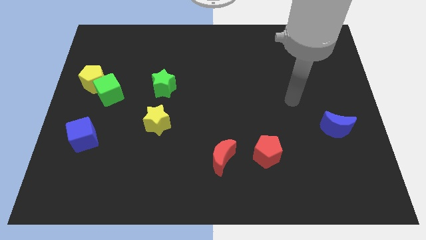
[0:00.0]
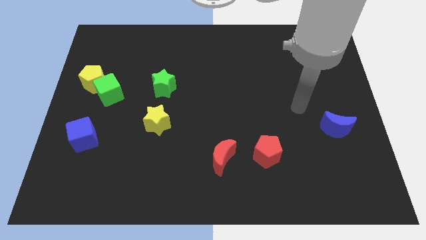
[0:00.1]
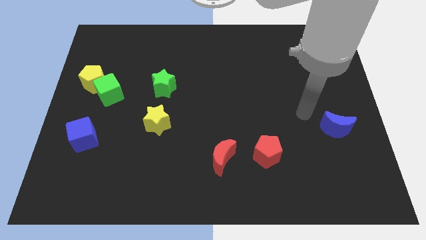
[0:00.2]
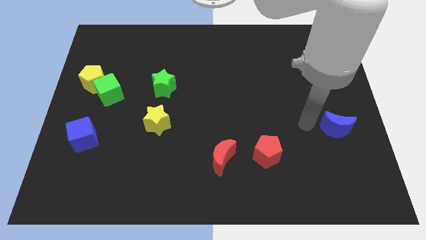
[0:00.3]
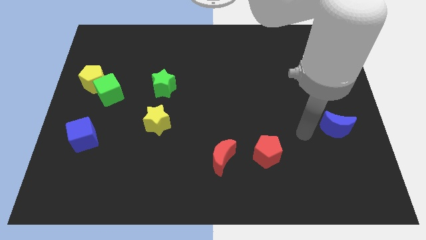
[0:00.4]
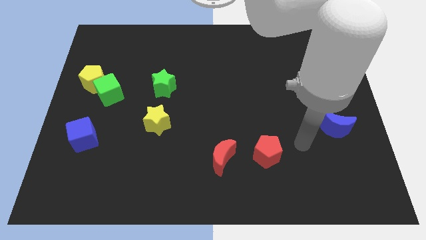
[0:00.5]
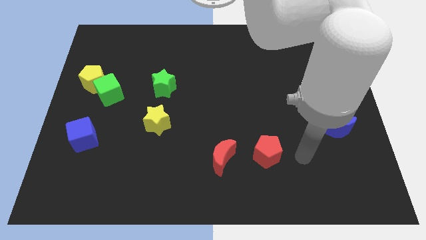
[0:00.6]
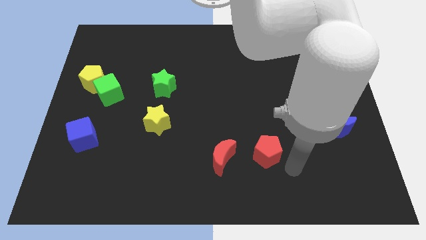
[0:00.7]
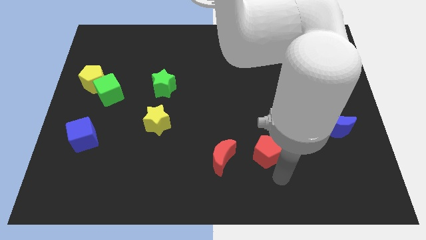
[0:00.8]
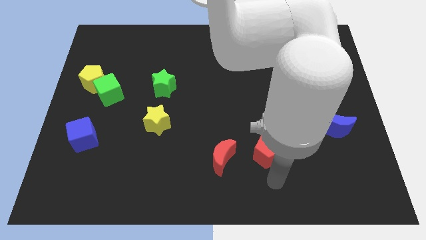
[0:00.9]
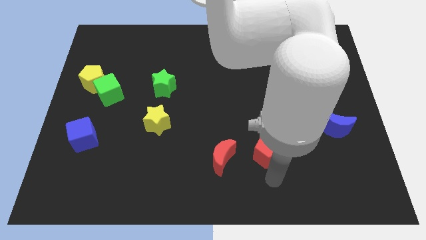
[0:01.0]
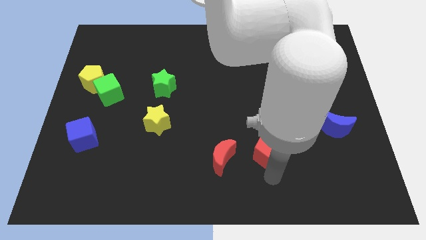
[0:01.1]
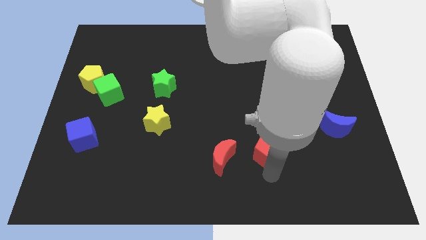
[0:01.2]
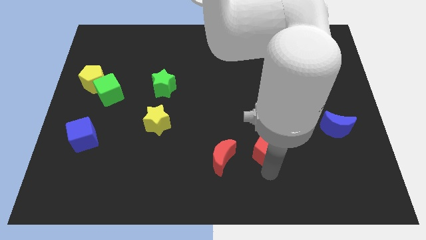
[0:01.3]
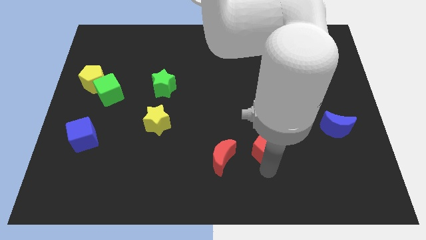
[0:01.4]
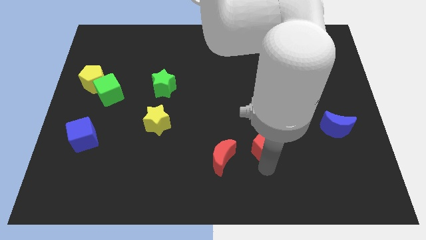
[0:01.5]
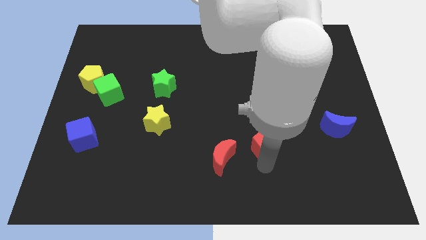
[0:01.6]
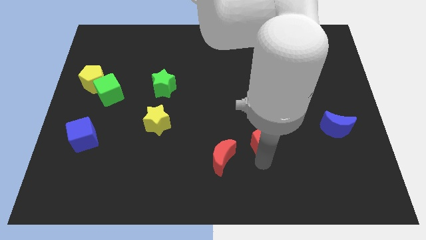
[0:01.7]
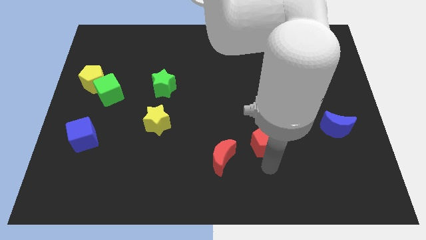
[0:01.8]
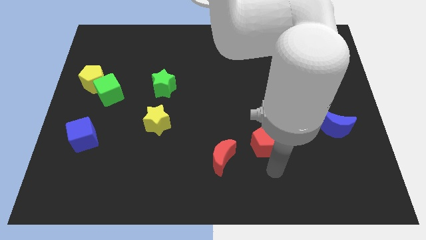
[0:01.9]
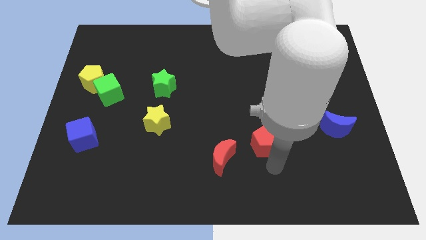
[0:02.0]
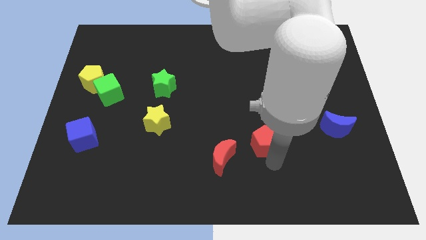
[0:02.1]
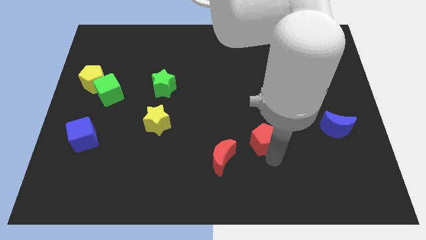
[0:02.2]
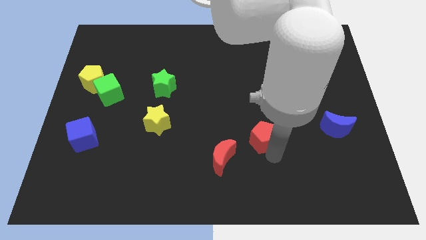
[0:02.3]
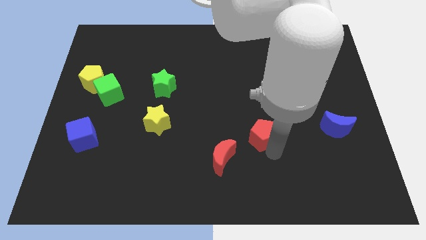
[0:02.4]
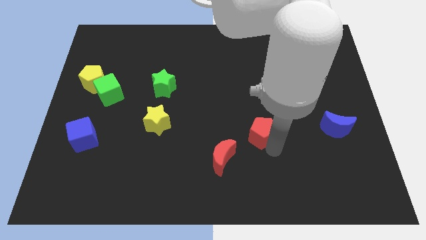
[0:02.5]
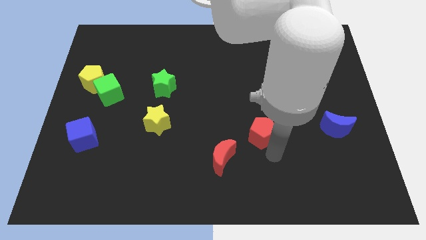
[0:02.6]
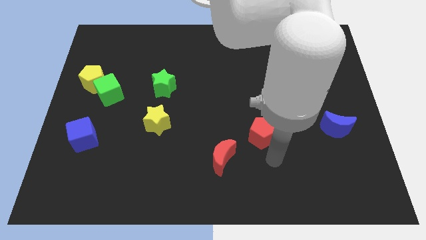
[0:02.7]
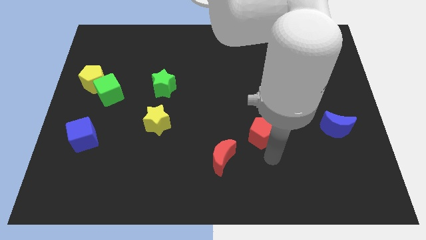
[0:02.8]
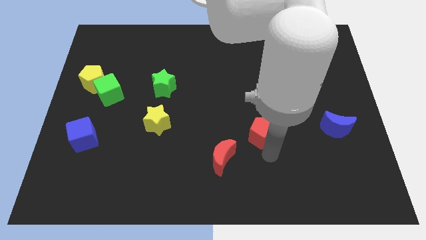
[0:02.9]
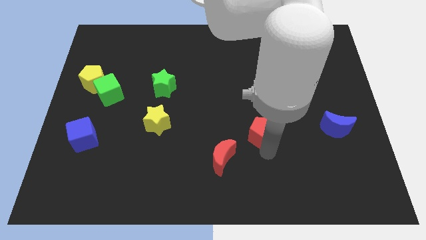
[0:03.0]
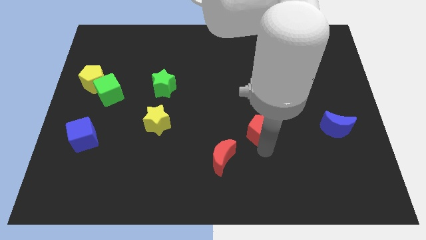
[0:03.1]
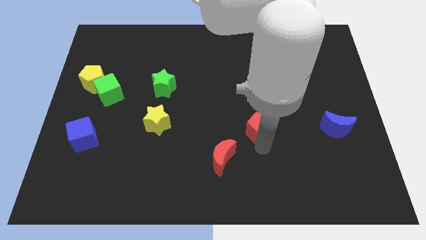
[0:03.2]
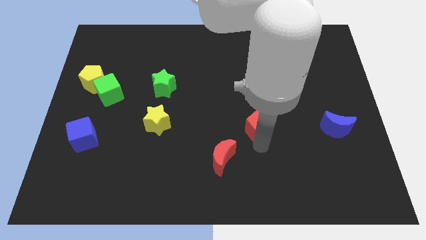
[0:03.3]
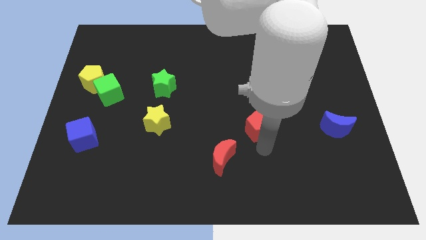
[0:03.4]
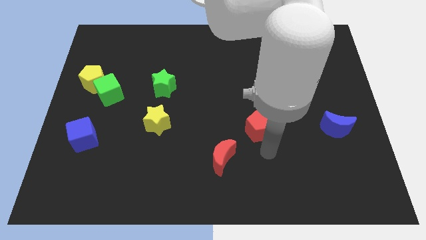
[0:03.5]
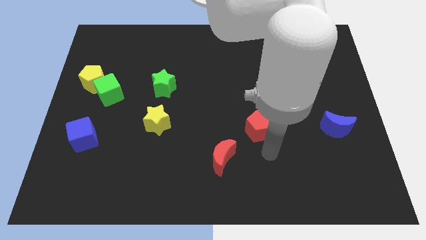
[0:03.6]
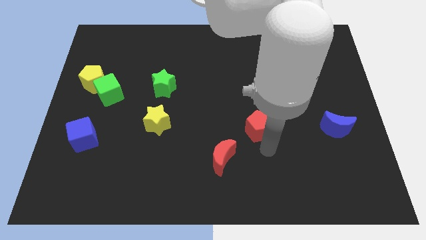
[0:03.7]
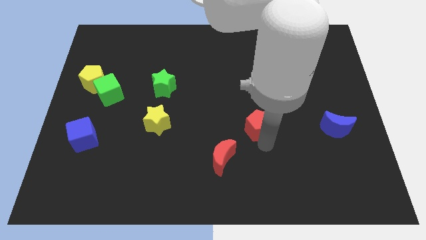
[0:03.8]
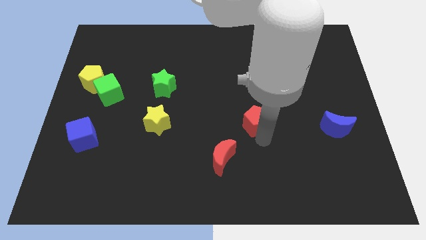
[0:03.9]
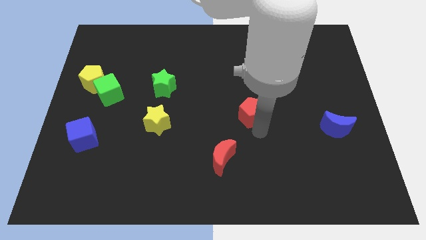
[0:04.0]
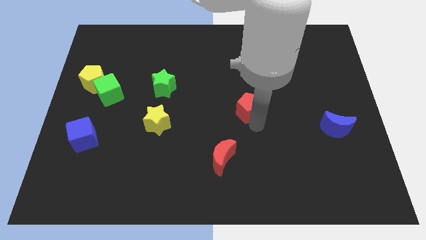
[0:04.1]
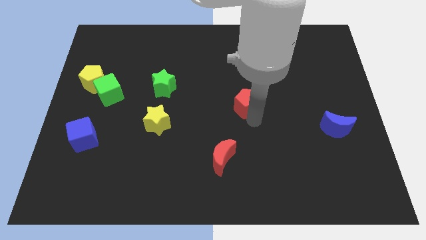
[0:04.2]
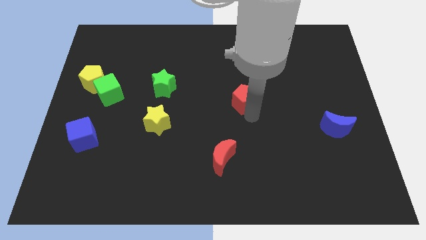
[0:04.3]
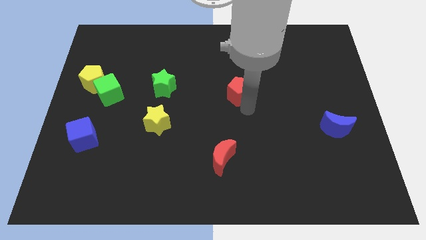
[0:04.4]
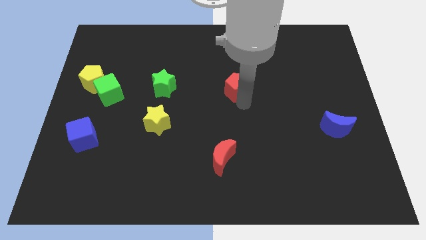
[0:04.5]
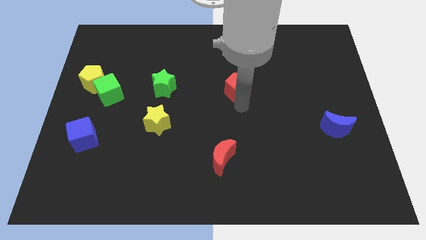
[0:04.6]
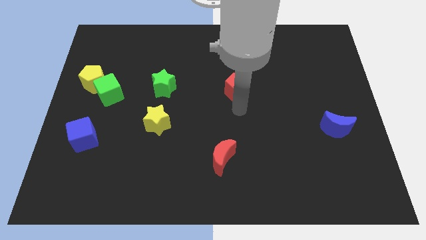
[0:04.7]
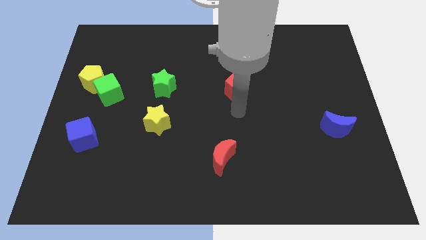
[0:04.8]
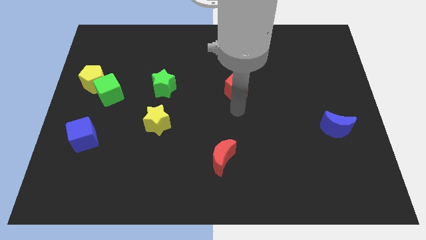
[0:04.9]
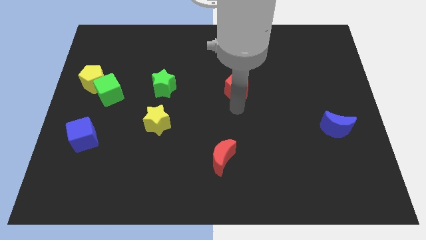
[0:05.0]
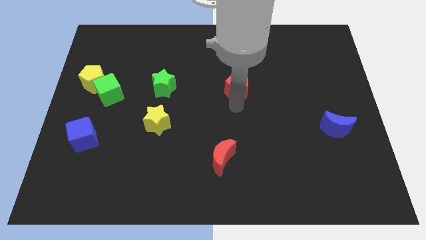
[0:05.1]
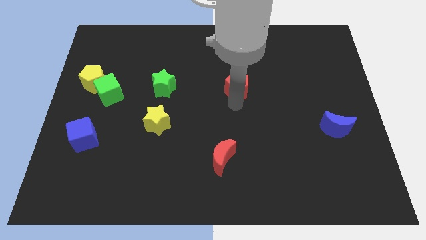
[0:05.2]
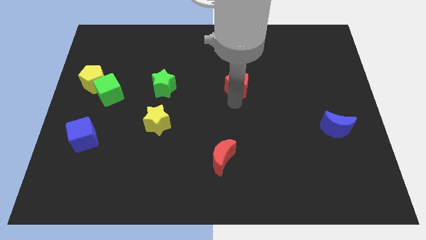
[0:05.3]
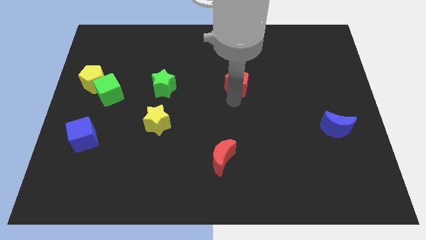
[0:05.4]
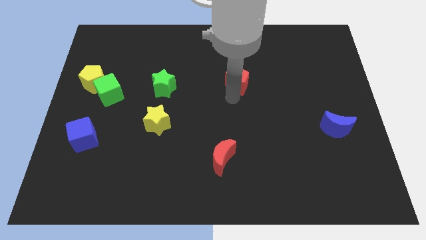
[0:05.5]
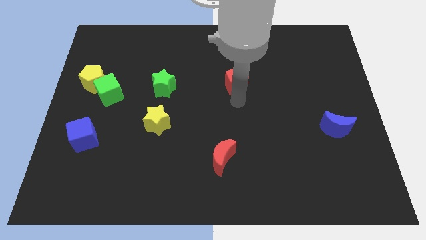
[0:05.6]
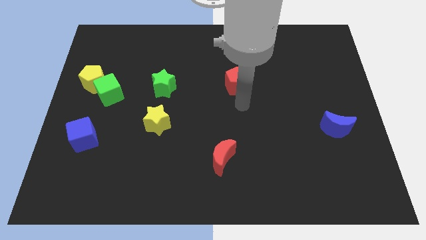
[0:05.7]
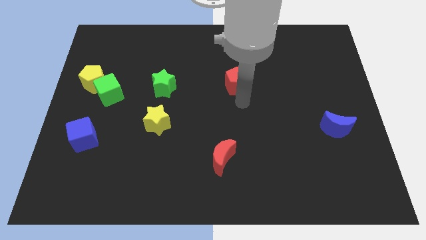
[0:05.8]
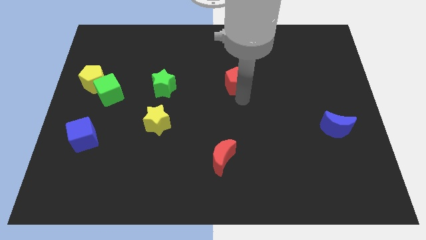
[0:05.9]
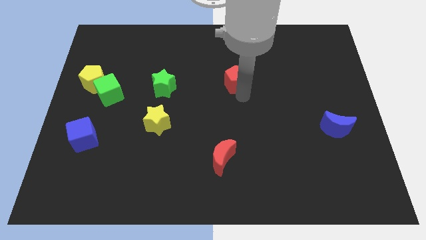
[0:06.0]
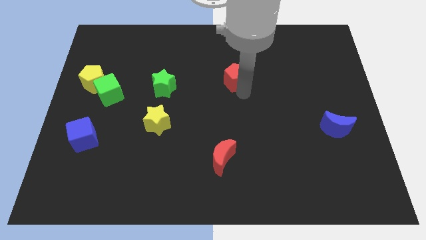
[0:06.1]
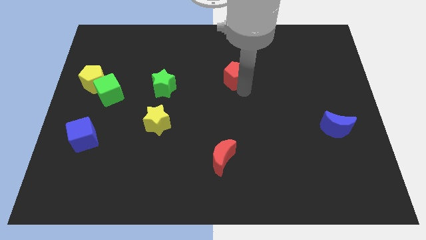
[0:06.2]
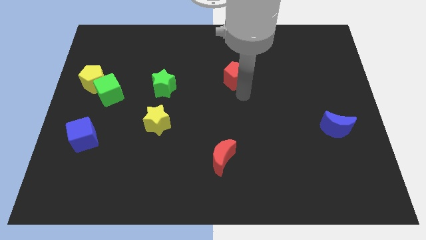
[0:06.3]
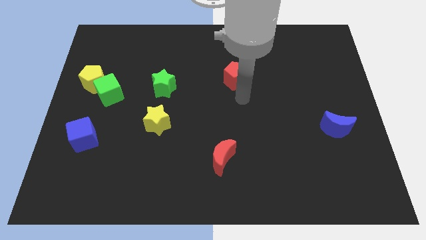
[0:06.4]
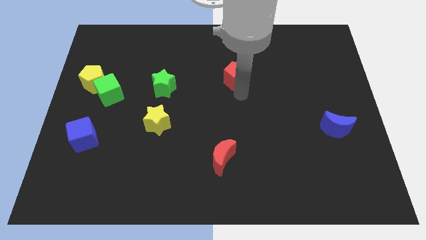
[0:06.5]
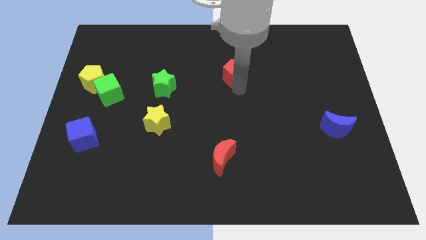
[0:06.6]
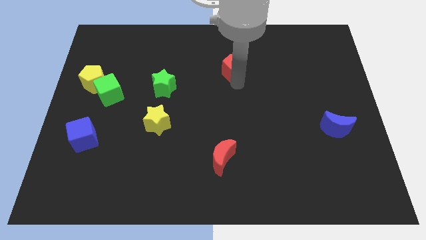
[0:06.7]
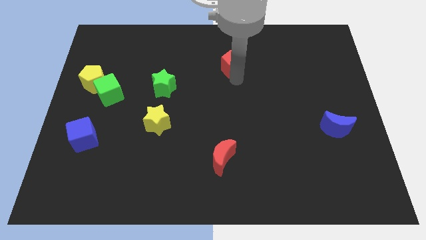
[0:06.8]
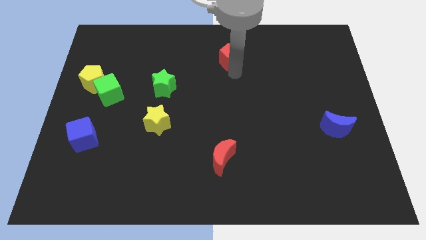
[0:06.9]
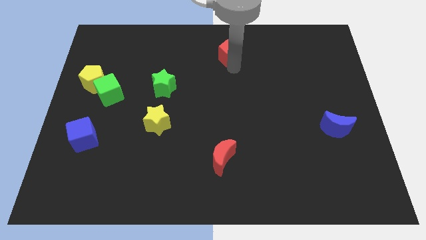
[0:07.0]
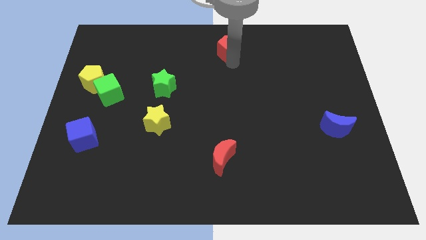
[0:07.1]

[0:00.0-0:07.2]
move the red pentagon to the top side
